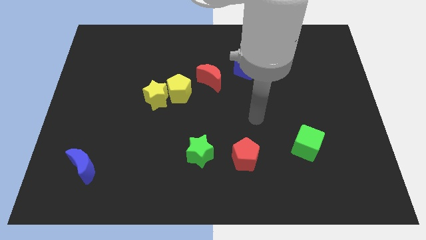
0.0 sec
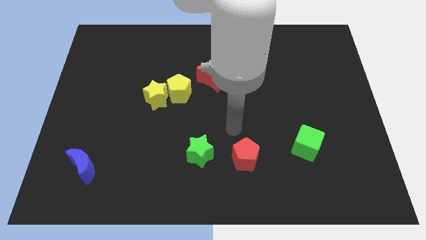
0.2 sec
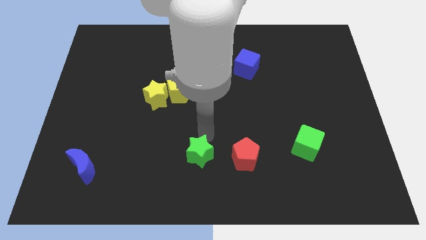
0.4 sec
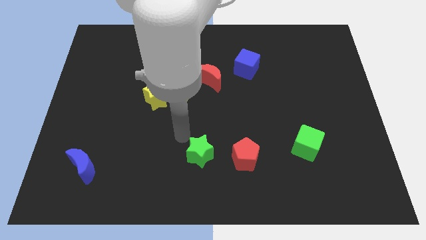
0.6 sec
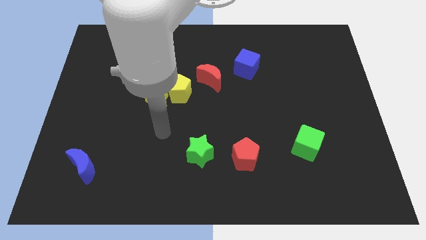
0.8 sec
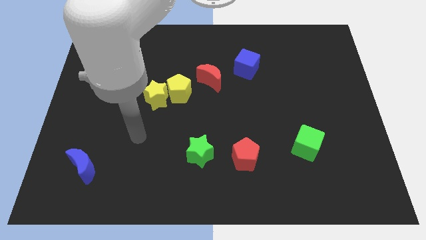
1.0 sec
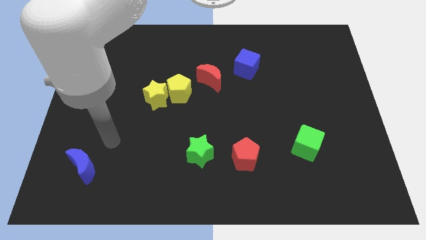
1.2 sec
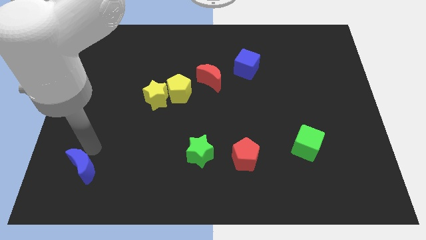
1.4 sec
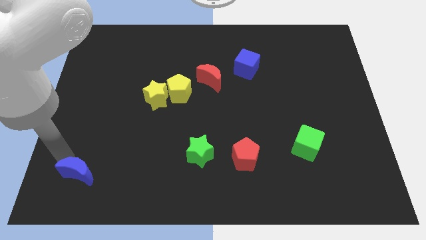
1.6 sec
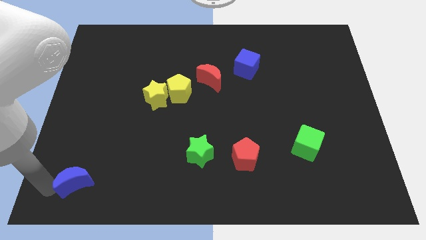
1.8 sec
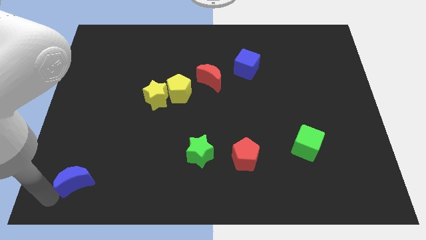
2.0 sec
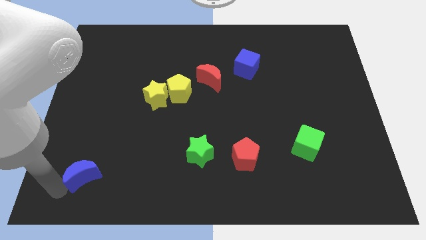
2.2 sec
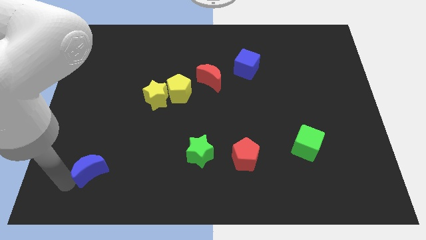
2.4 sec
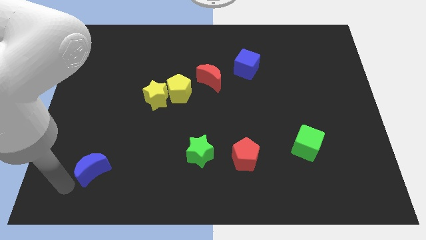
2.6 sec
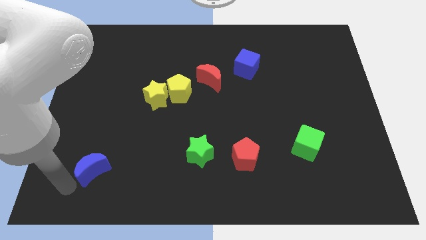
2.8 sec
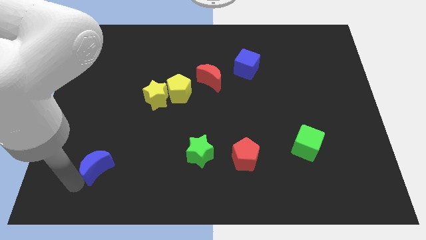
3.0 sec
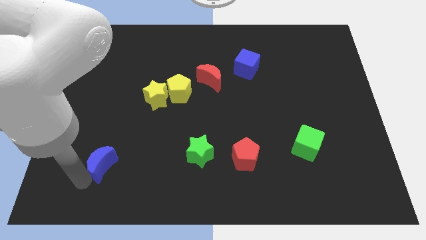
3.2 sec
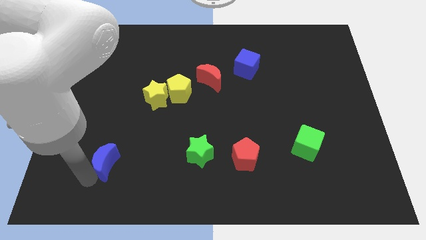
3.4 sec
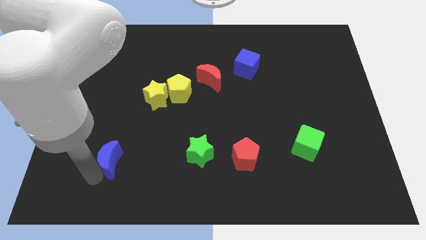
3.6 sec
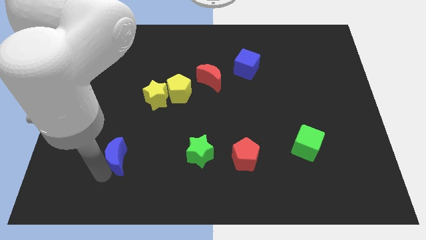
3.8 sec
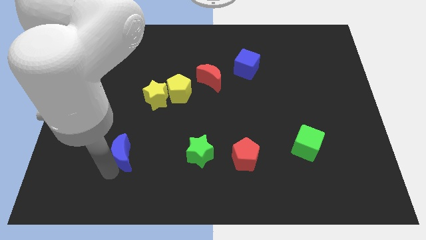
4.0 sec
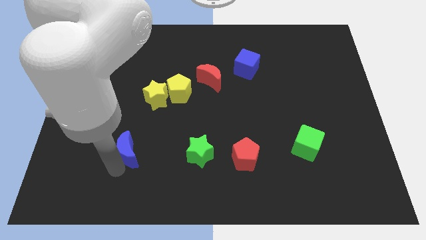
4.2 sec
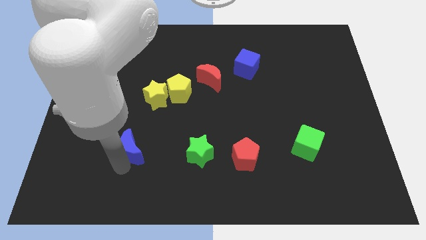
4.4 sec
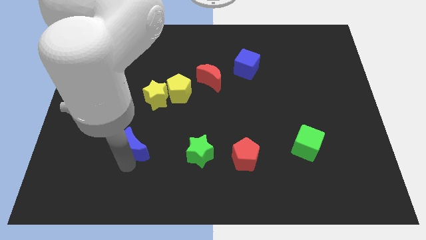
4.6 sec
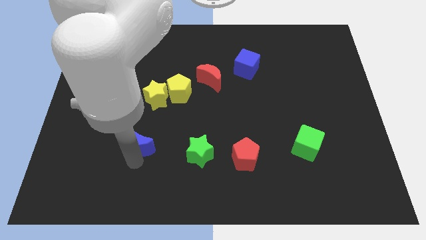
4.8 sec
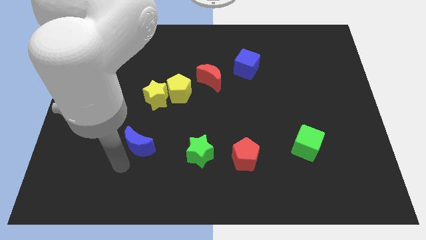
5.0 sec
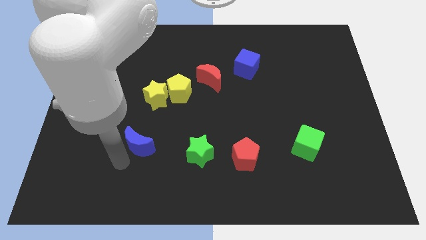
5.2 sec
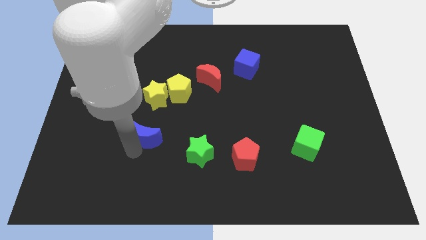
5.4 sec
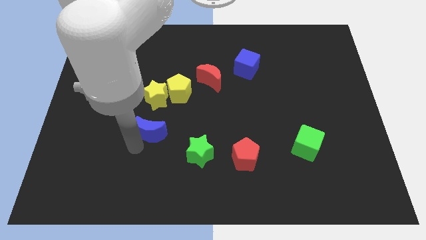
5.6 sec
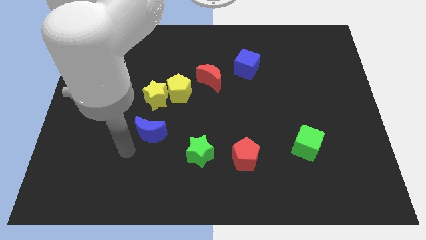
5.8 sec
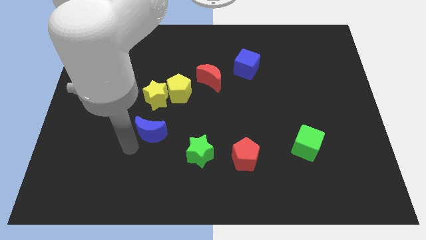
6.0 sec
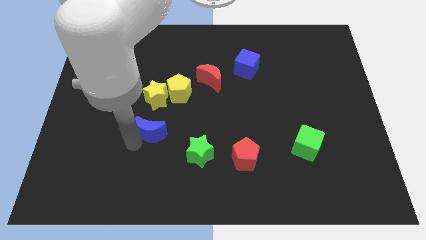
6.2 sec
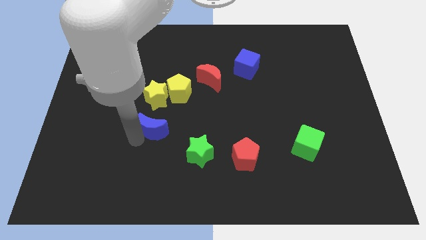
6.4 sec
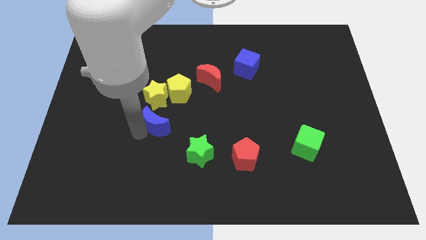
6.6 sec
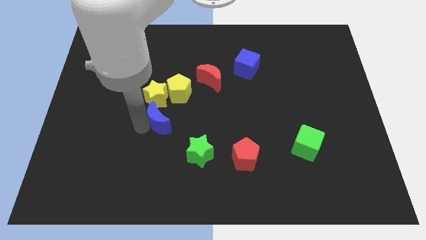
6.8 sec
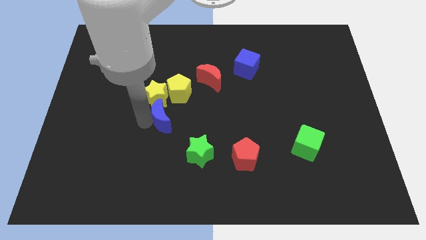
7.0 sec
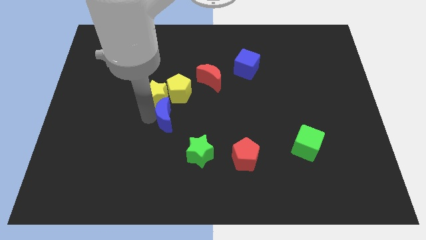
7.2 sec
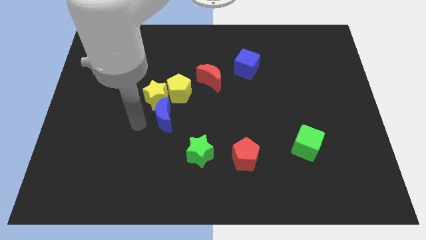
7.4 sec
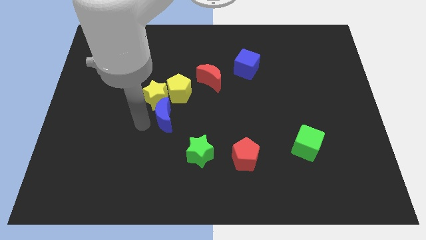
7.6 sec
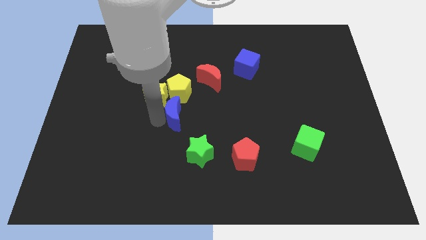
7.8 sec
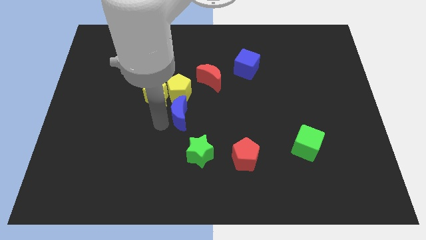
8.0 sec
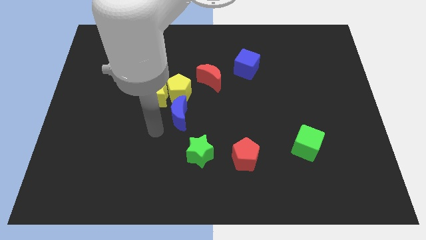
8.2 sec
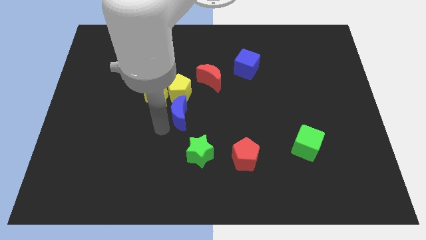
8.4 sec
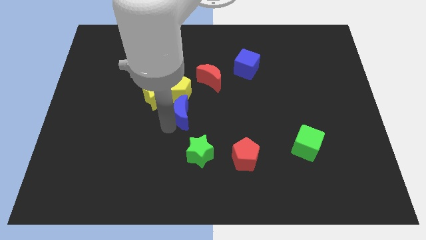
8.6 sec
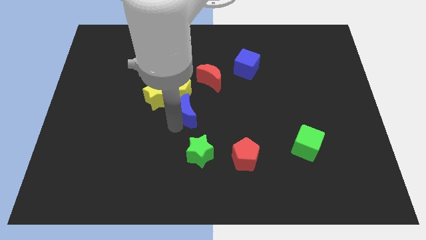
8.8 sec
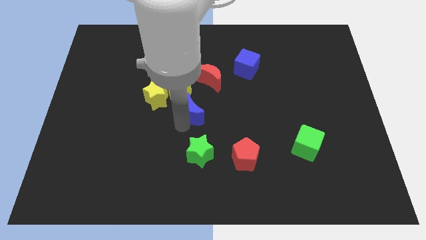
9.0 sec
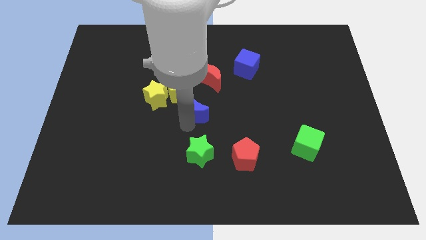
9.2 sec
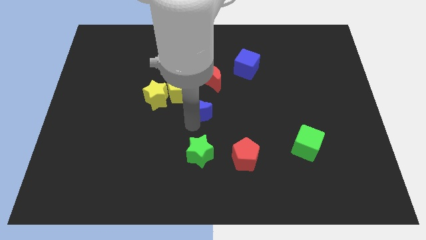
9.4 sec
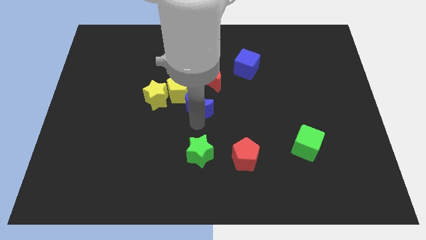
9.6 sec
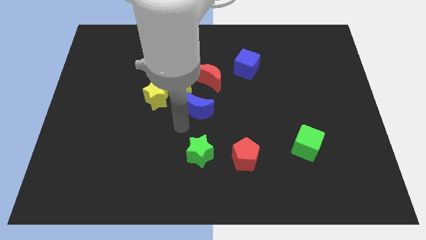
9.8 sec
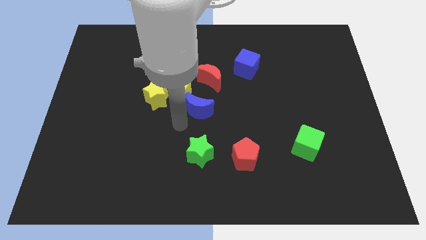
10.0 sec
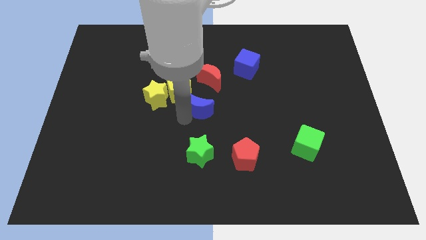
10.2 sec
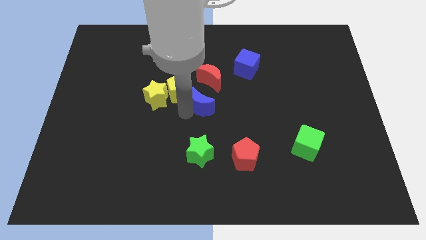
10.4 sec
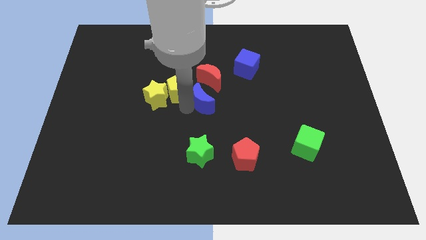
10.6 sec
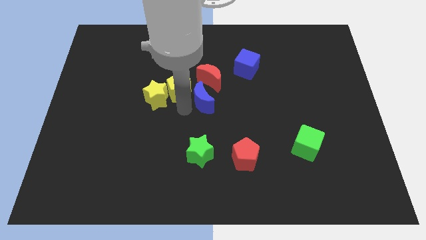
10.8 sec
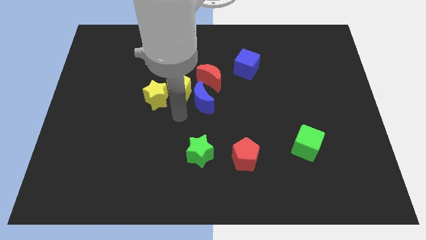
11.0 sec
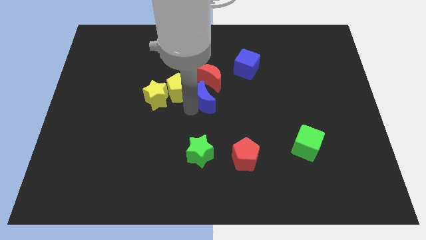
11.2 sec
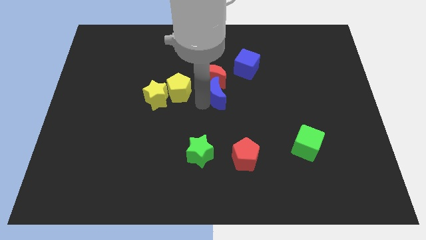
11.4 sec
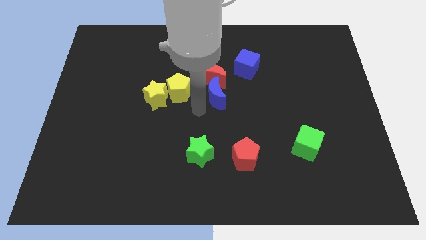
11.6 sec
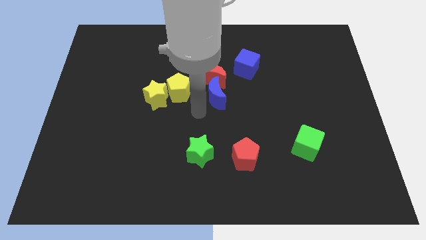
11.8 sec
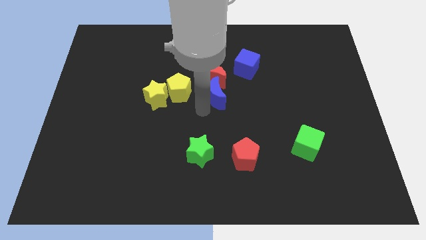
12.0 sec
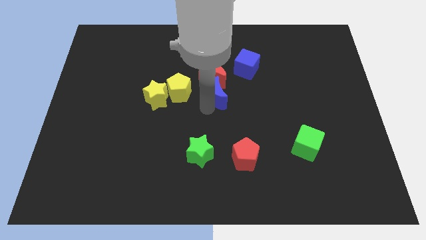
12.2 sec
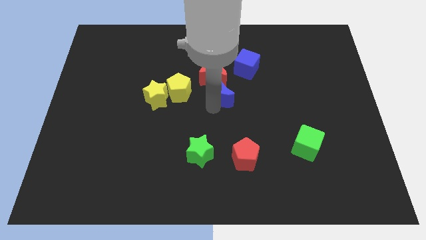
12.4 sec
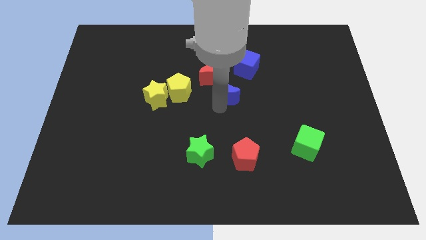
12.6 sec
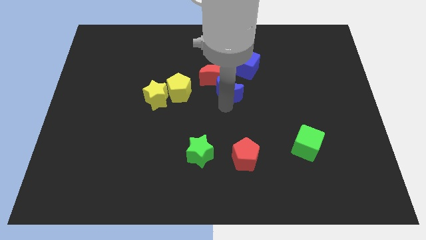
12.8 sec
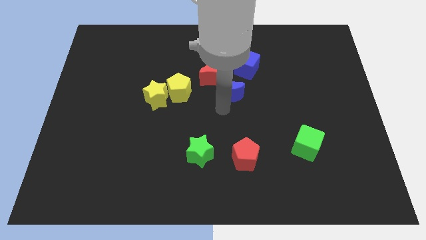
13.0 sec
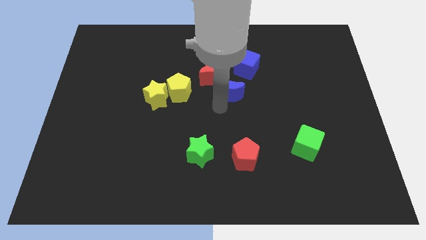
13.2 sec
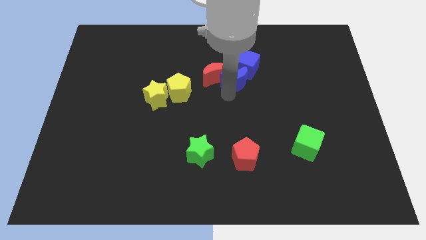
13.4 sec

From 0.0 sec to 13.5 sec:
slide the blue moon close to the blue cube

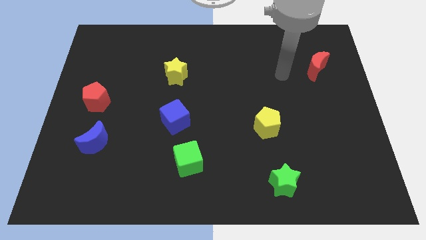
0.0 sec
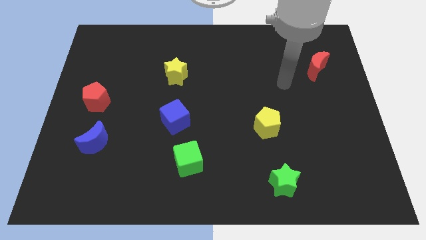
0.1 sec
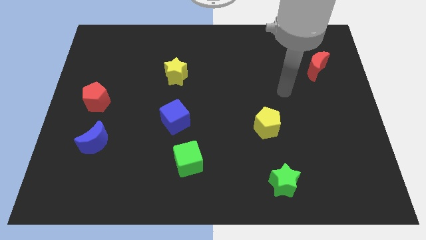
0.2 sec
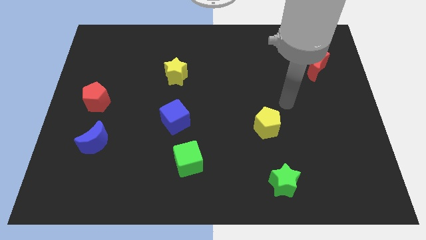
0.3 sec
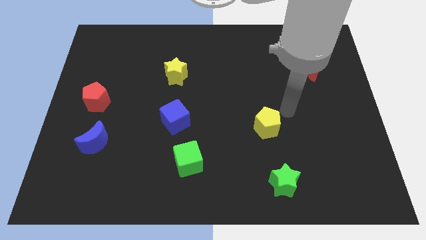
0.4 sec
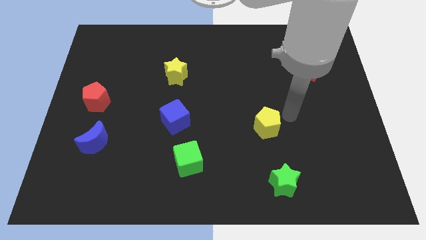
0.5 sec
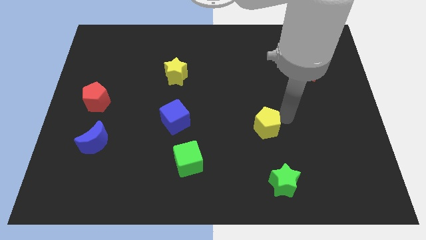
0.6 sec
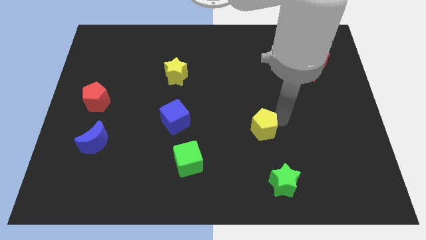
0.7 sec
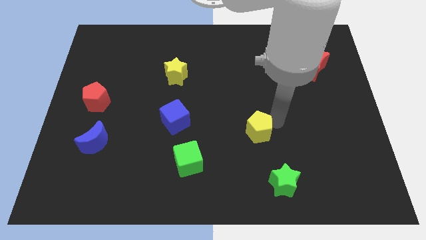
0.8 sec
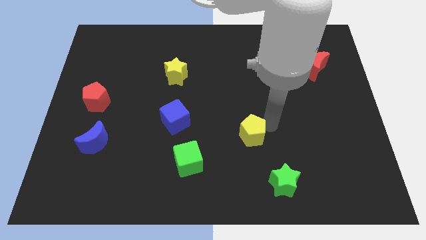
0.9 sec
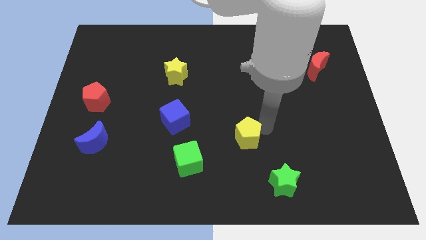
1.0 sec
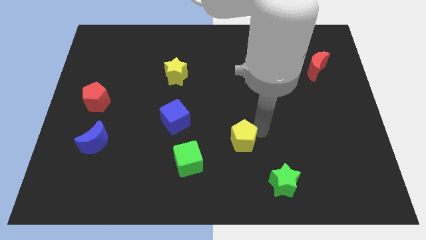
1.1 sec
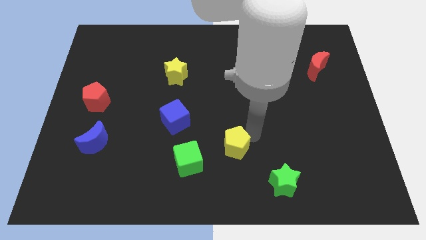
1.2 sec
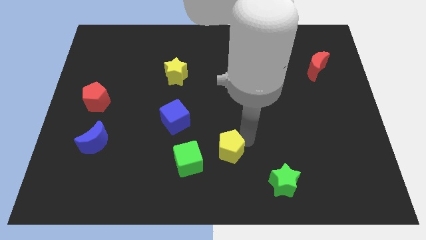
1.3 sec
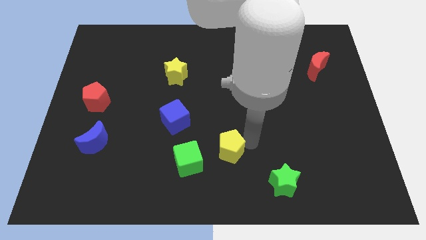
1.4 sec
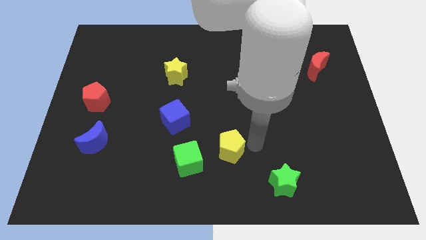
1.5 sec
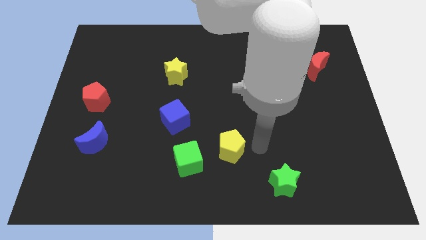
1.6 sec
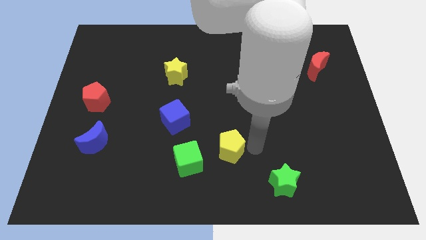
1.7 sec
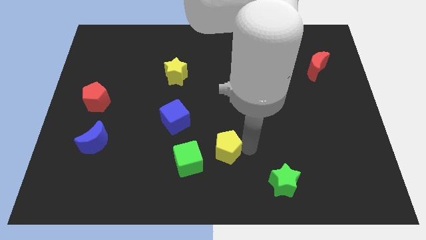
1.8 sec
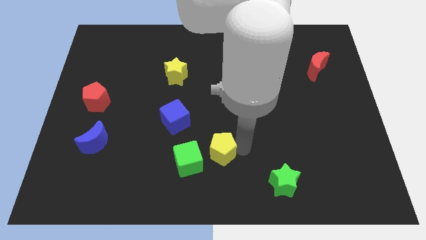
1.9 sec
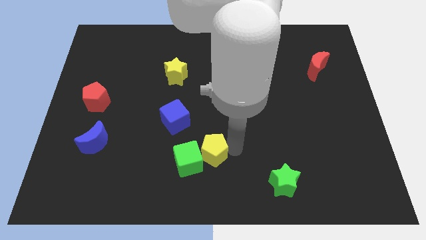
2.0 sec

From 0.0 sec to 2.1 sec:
move the yellow pentagon close to the green cube
